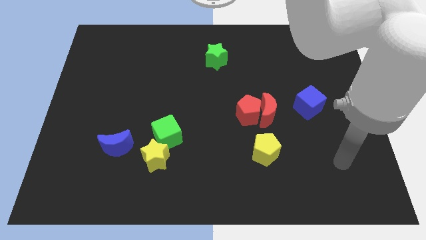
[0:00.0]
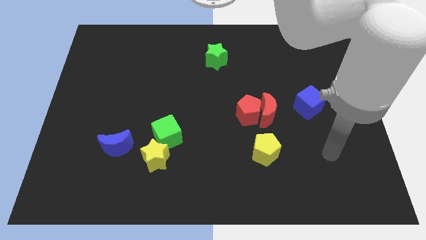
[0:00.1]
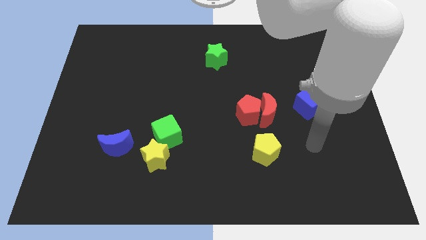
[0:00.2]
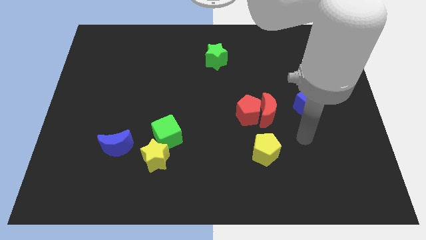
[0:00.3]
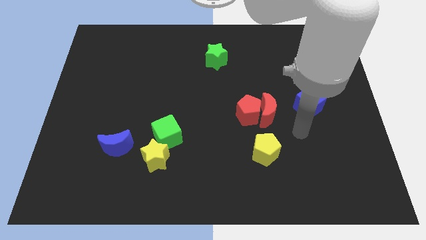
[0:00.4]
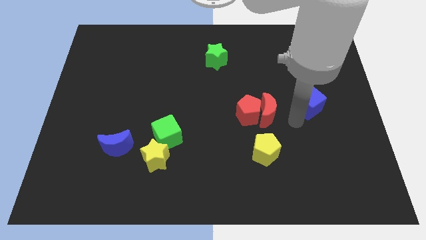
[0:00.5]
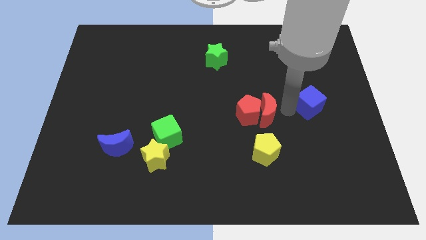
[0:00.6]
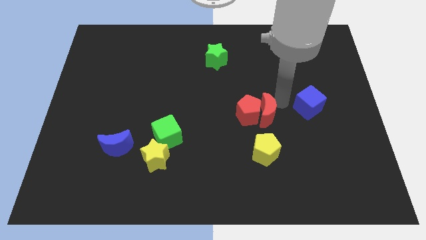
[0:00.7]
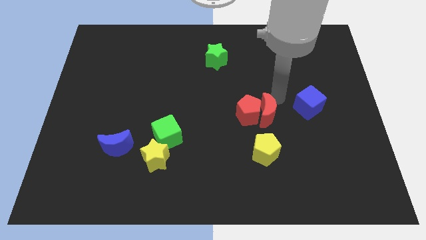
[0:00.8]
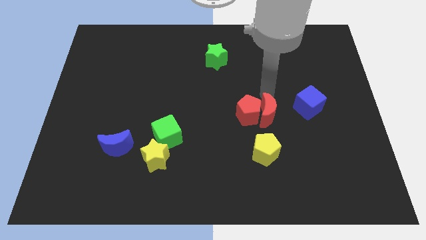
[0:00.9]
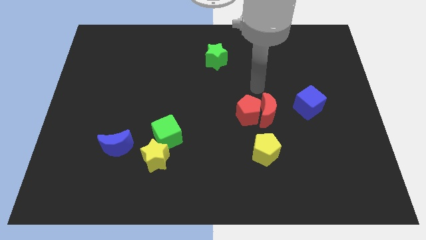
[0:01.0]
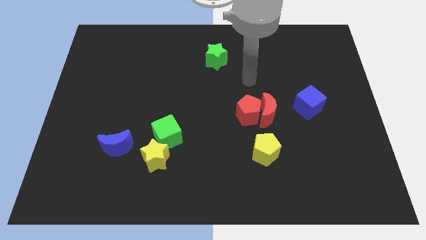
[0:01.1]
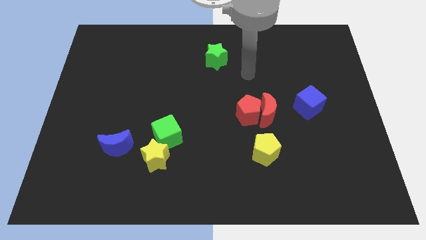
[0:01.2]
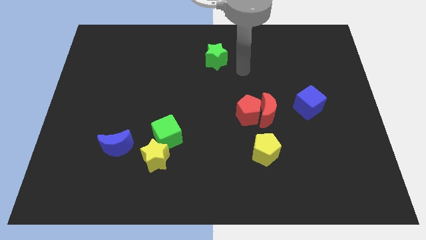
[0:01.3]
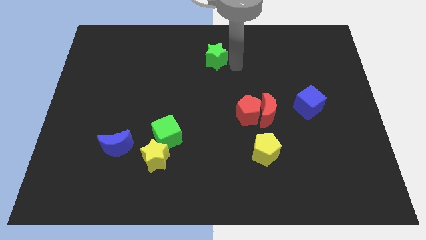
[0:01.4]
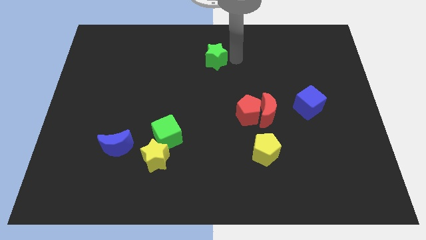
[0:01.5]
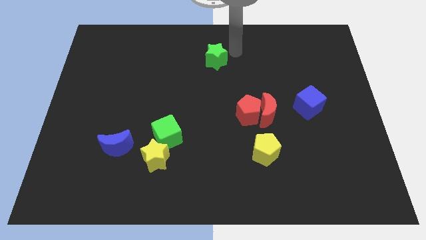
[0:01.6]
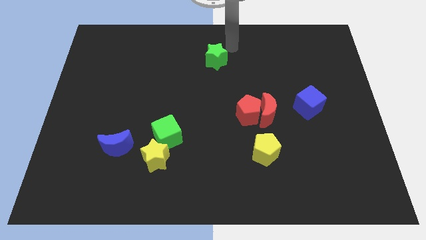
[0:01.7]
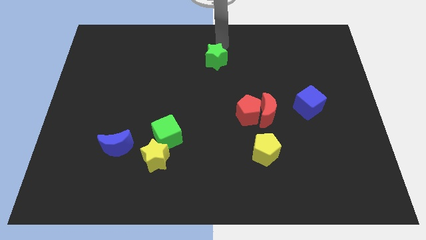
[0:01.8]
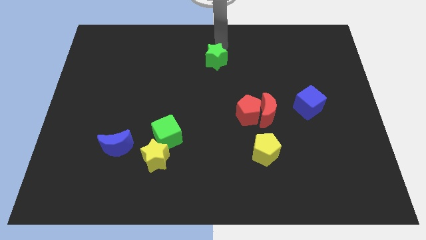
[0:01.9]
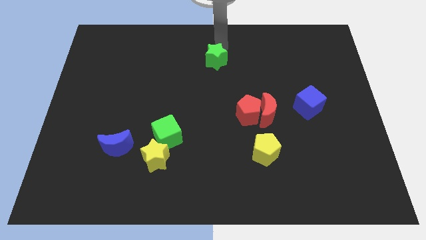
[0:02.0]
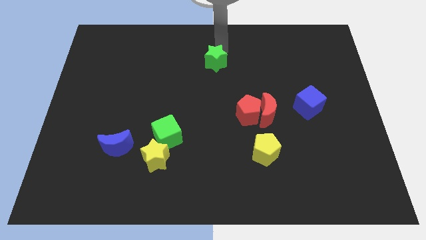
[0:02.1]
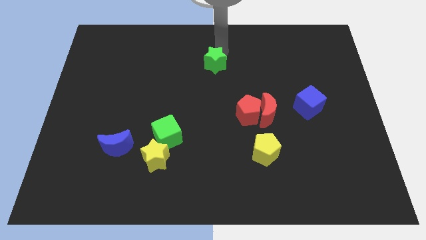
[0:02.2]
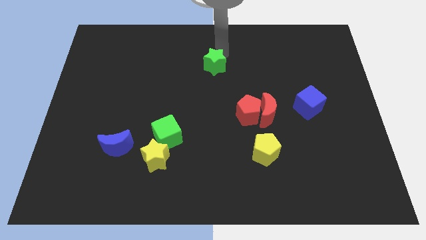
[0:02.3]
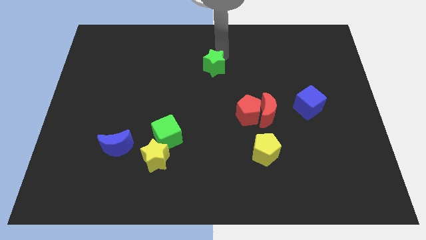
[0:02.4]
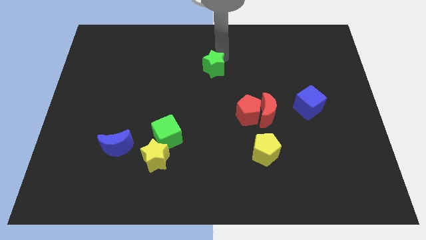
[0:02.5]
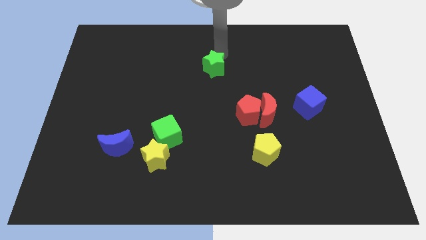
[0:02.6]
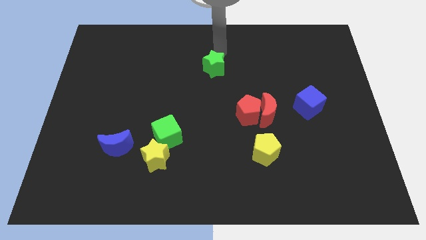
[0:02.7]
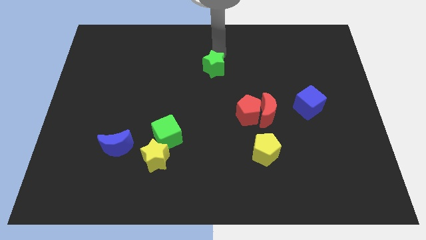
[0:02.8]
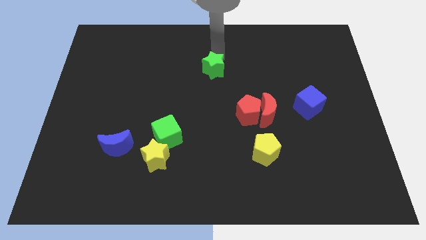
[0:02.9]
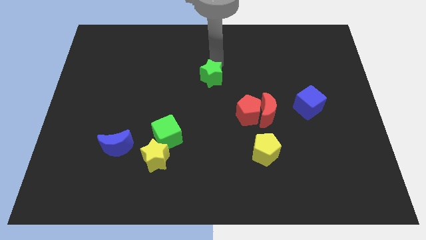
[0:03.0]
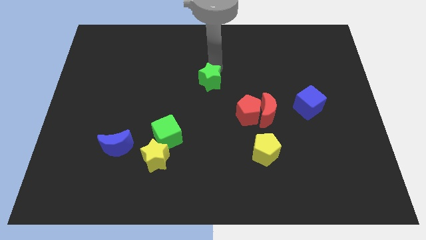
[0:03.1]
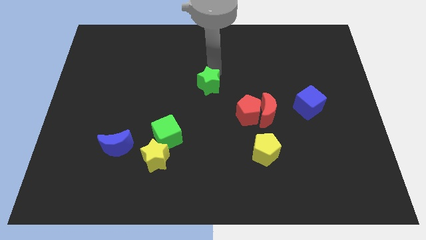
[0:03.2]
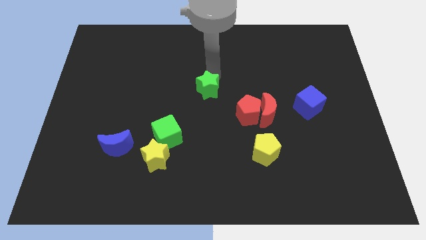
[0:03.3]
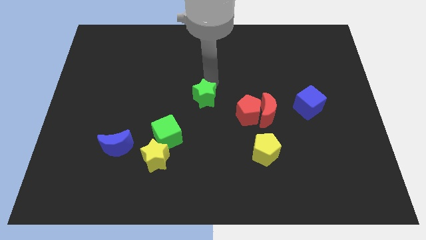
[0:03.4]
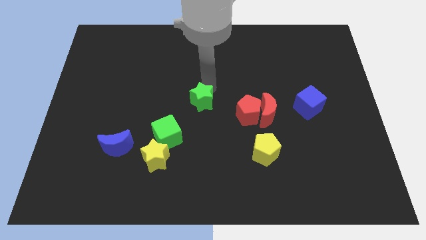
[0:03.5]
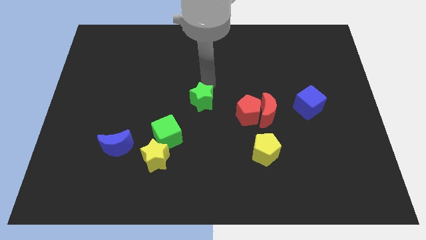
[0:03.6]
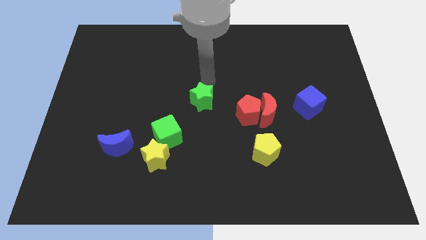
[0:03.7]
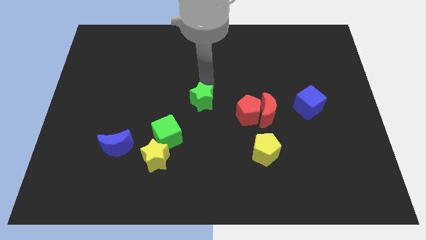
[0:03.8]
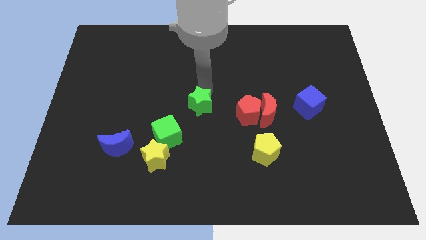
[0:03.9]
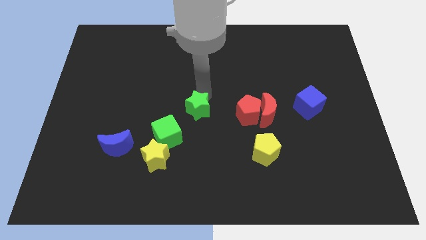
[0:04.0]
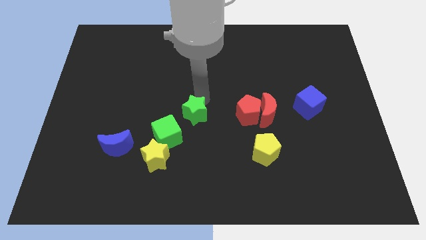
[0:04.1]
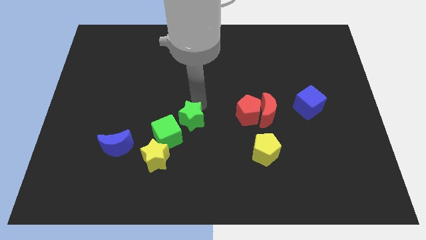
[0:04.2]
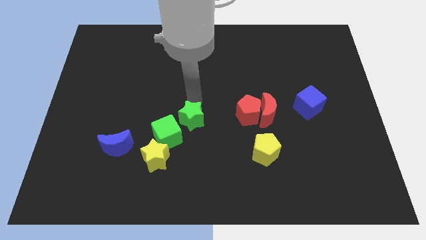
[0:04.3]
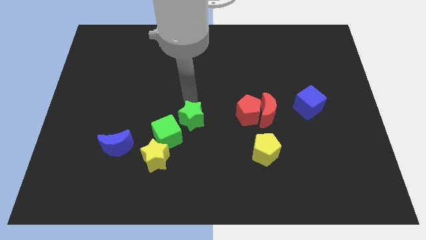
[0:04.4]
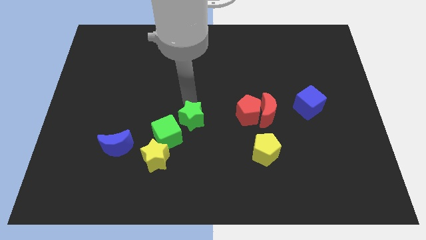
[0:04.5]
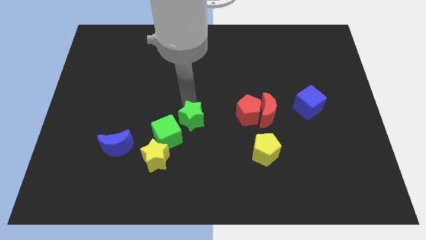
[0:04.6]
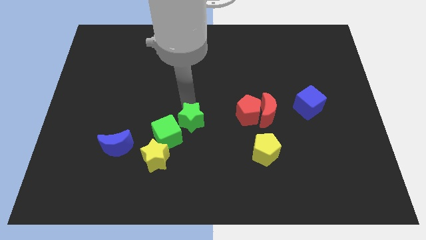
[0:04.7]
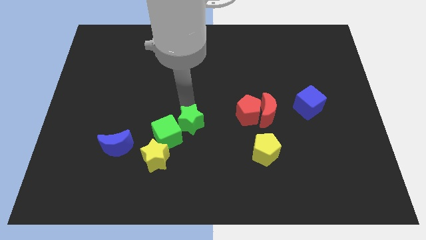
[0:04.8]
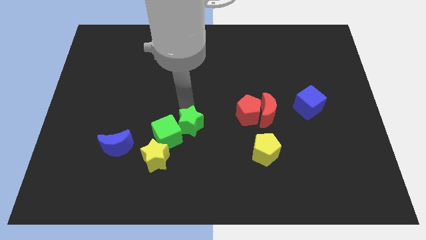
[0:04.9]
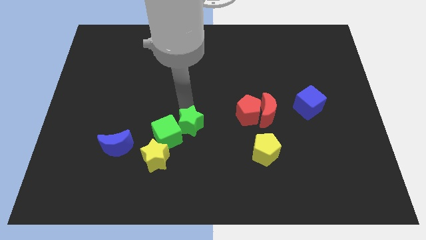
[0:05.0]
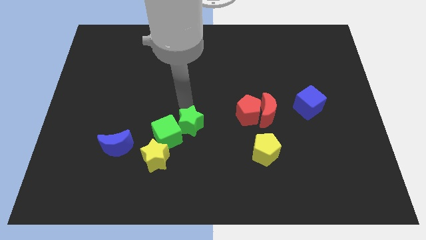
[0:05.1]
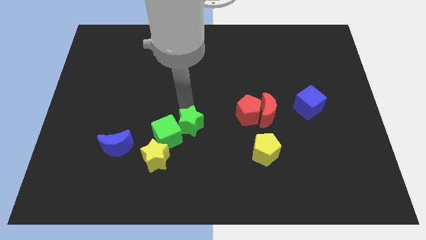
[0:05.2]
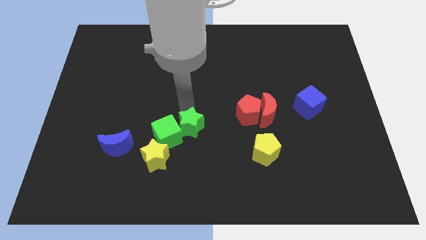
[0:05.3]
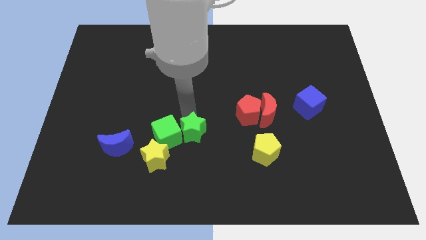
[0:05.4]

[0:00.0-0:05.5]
push the green star diagonally down and to the right of the green cube

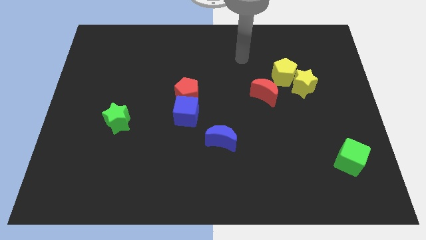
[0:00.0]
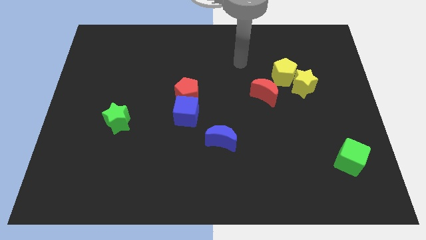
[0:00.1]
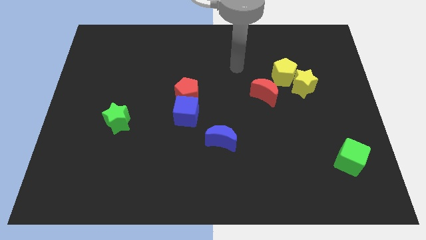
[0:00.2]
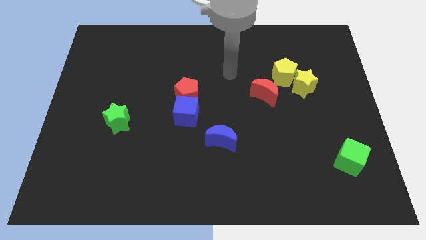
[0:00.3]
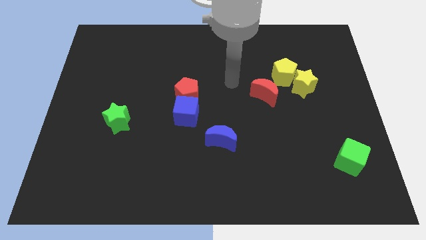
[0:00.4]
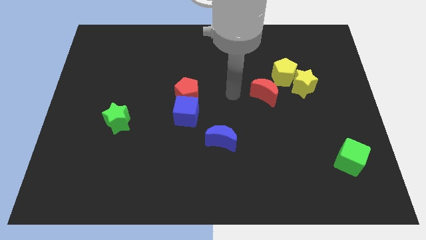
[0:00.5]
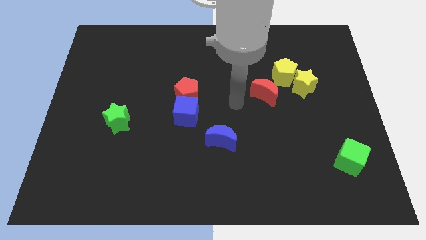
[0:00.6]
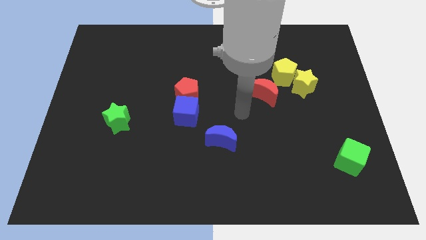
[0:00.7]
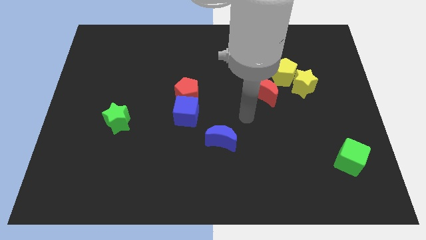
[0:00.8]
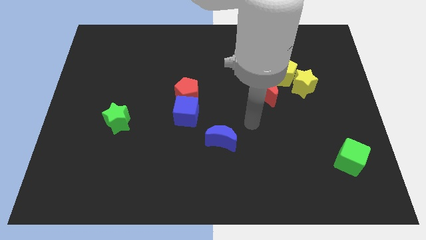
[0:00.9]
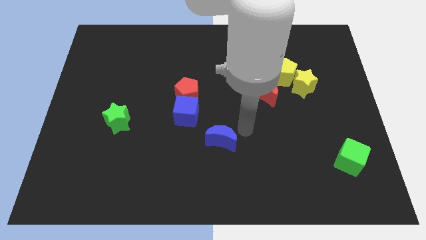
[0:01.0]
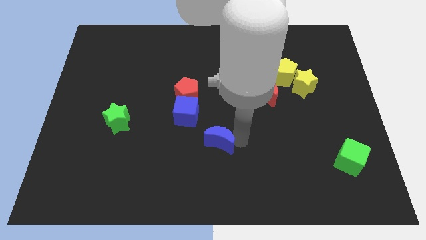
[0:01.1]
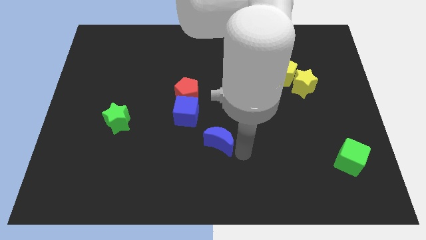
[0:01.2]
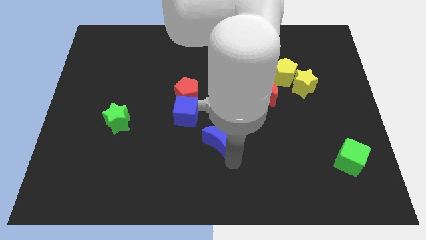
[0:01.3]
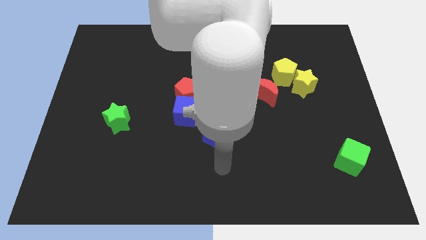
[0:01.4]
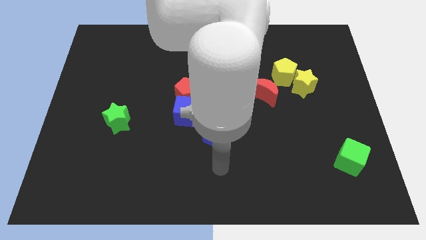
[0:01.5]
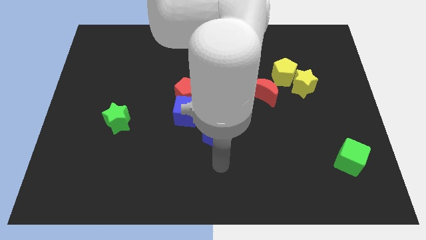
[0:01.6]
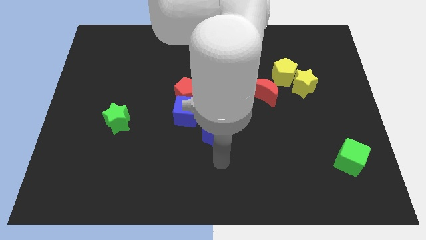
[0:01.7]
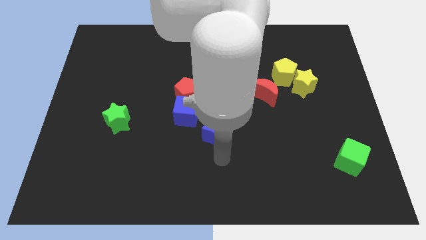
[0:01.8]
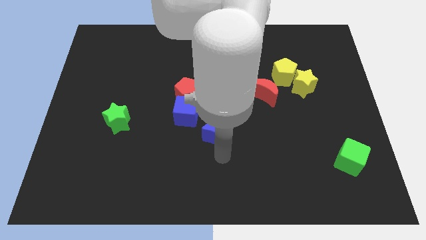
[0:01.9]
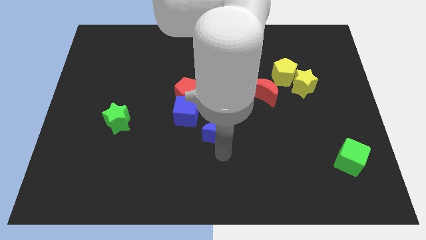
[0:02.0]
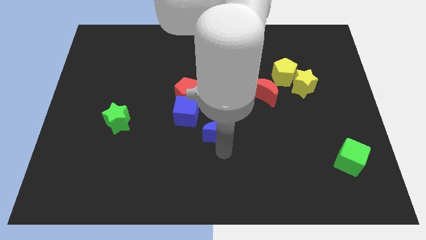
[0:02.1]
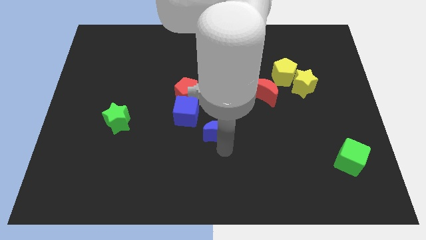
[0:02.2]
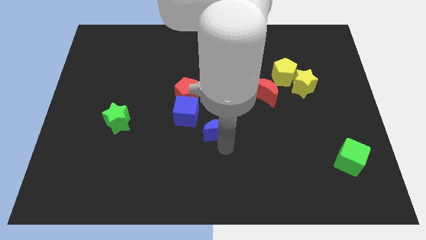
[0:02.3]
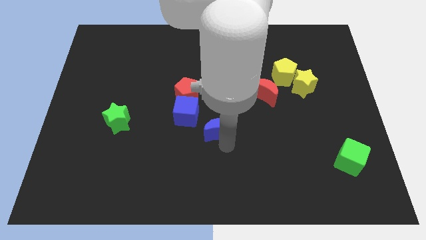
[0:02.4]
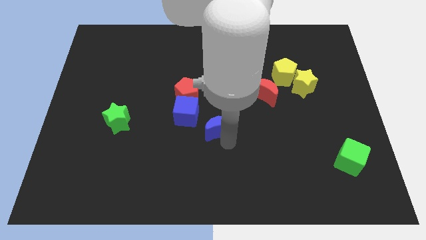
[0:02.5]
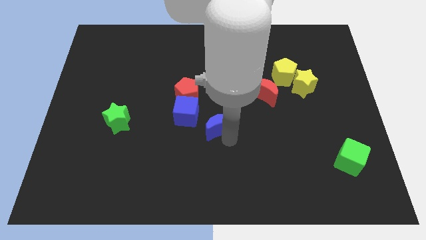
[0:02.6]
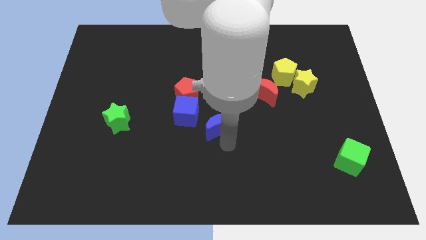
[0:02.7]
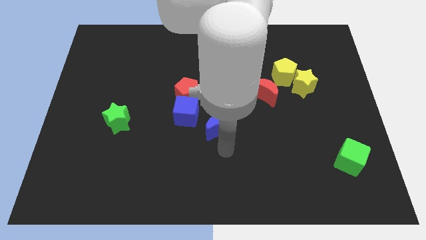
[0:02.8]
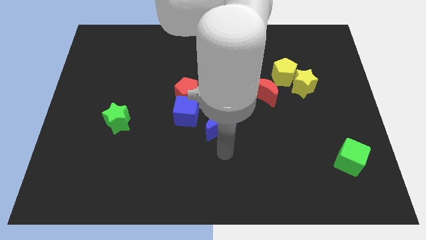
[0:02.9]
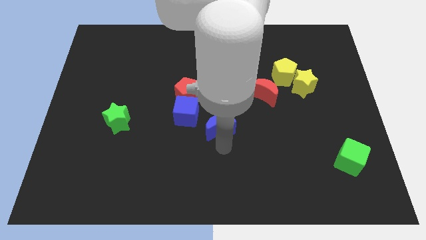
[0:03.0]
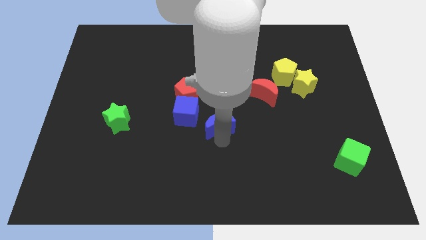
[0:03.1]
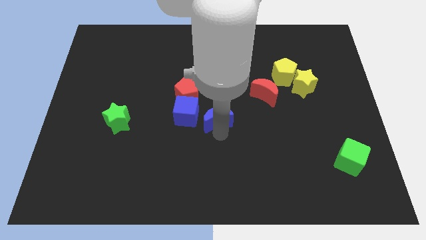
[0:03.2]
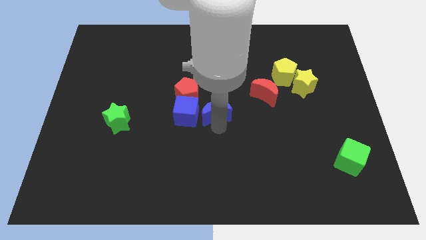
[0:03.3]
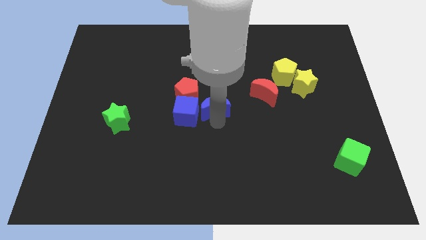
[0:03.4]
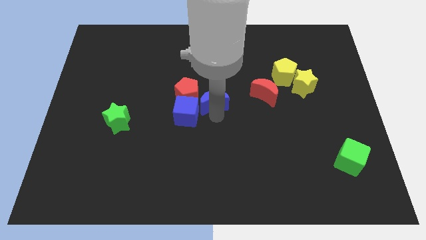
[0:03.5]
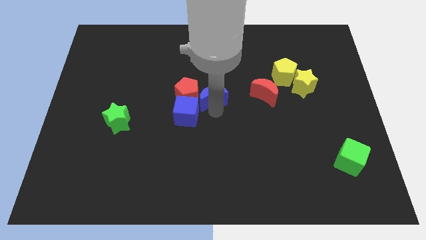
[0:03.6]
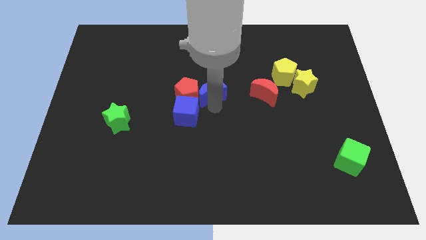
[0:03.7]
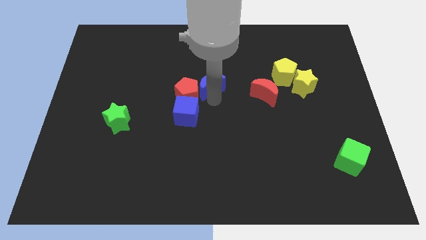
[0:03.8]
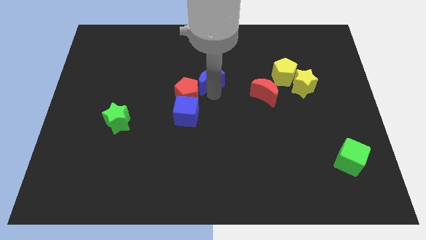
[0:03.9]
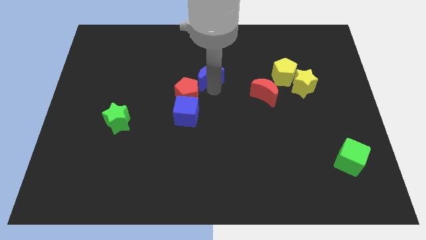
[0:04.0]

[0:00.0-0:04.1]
push the blue moon above the red pentagon
